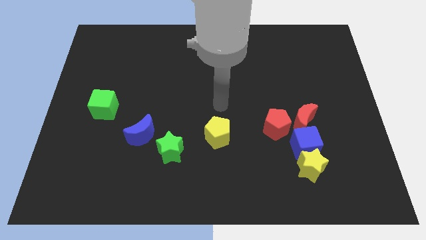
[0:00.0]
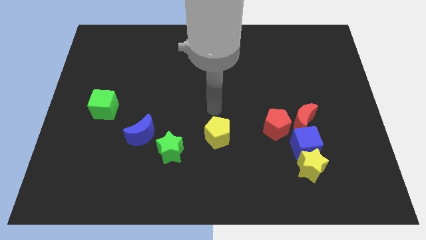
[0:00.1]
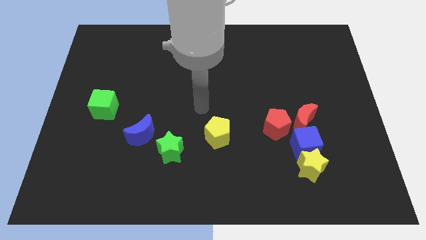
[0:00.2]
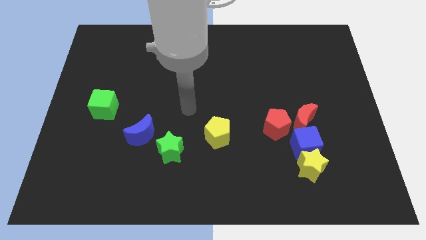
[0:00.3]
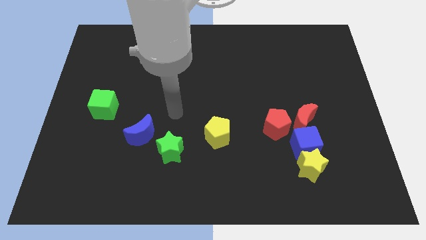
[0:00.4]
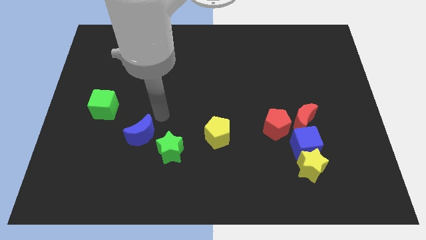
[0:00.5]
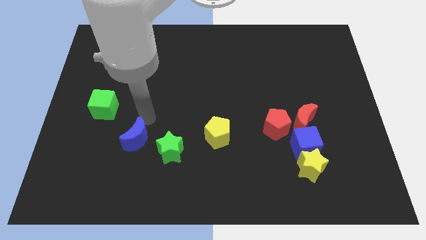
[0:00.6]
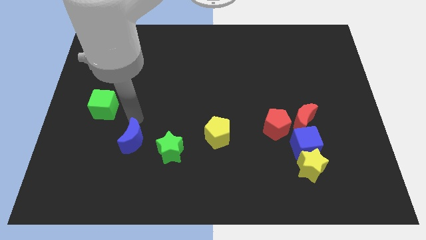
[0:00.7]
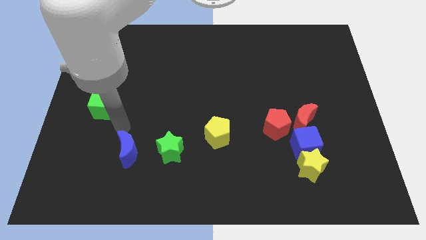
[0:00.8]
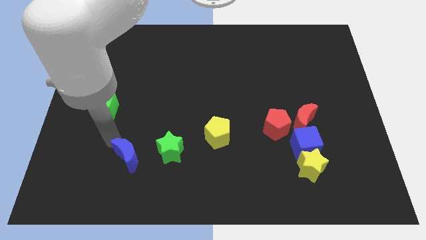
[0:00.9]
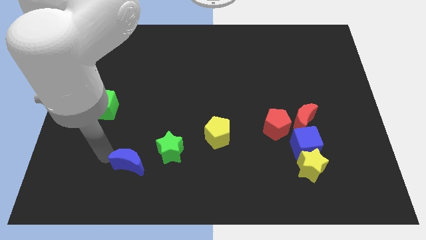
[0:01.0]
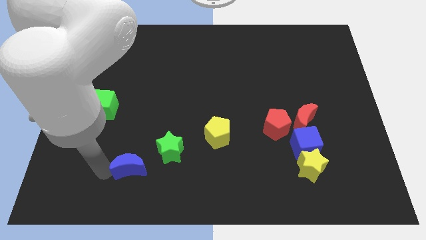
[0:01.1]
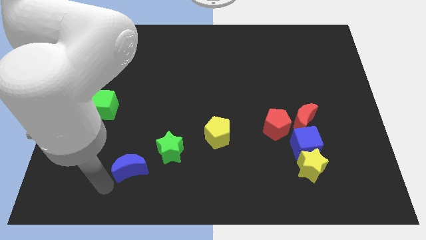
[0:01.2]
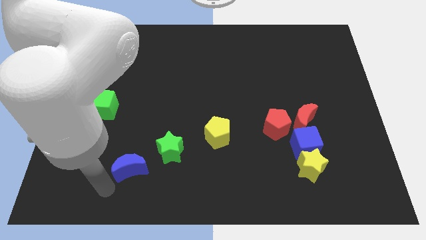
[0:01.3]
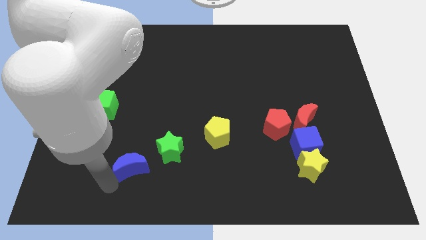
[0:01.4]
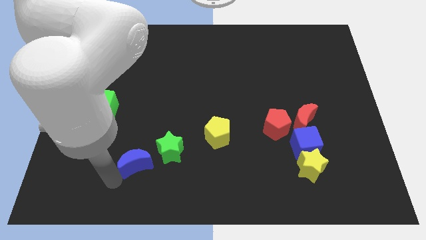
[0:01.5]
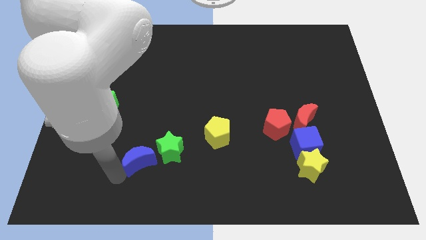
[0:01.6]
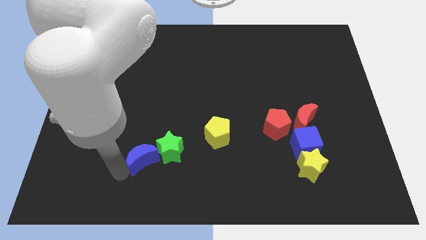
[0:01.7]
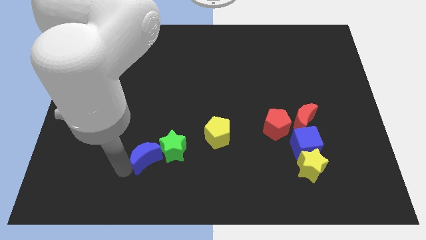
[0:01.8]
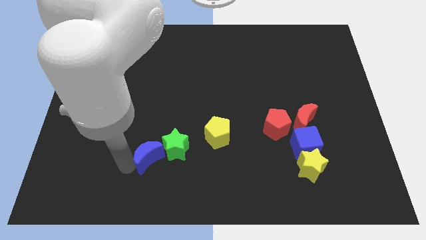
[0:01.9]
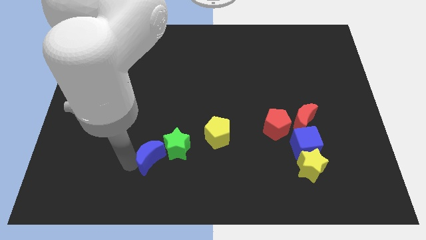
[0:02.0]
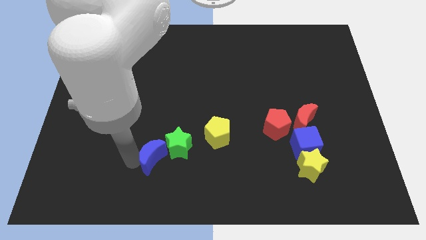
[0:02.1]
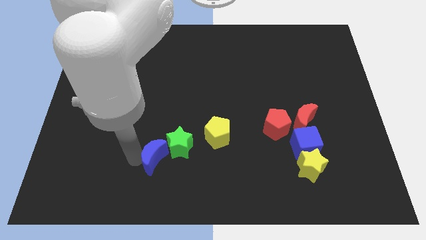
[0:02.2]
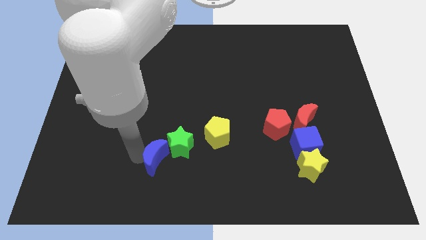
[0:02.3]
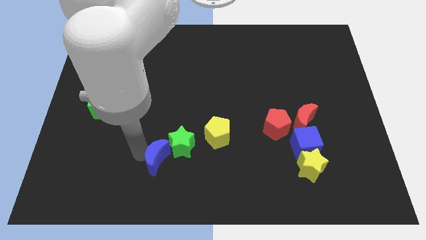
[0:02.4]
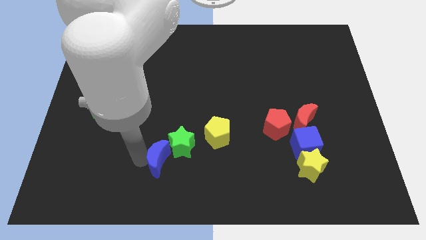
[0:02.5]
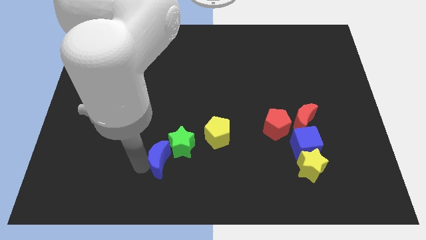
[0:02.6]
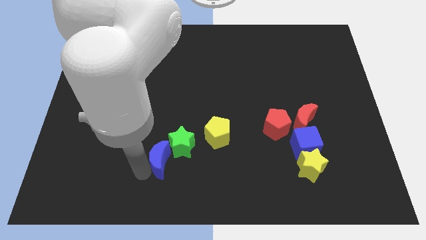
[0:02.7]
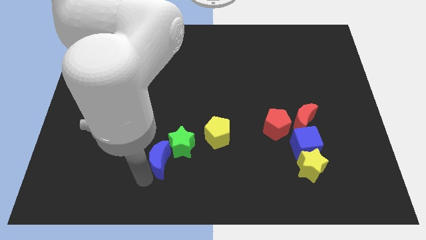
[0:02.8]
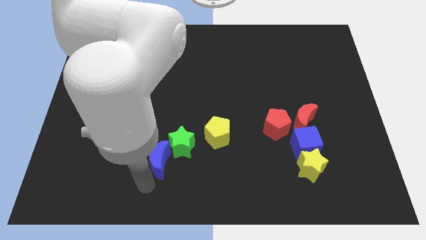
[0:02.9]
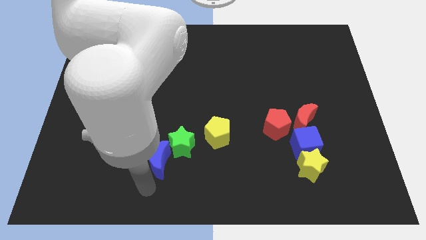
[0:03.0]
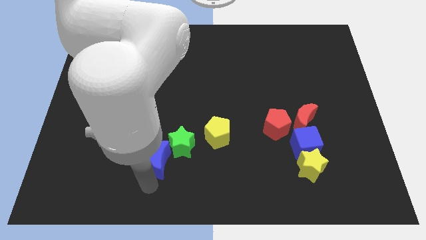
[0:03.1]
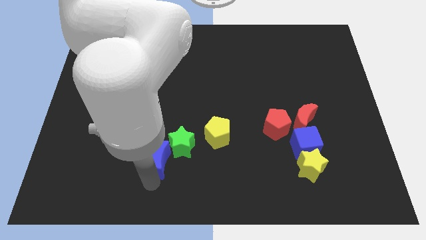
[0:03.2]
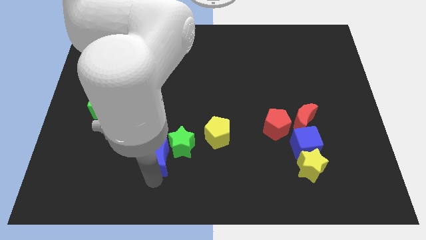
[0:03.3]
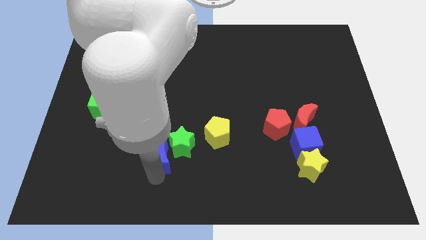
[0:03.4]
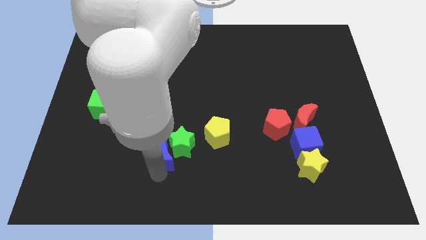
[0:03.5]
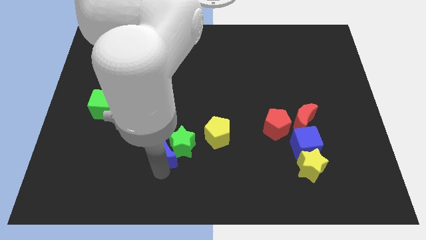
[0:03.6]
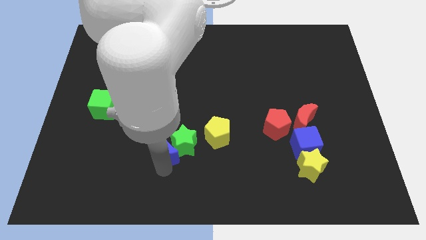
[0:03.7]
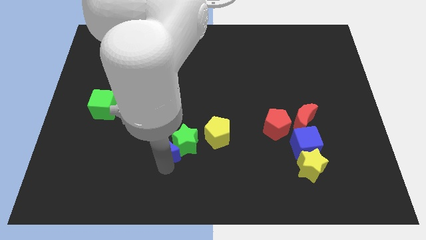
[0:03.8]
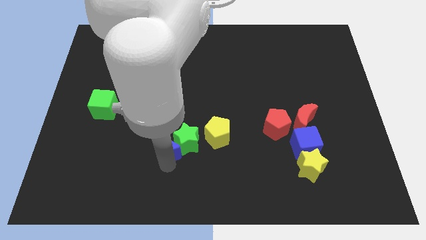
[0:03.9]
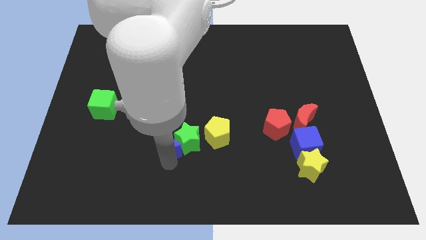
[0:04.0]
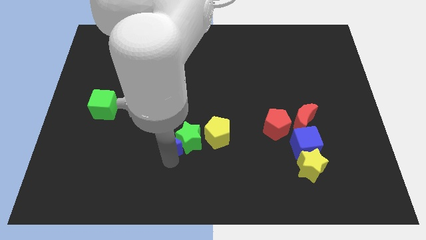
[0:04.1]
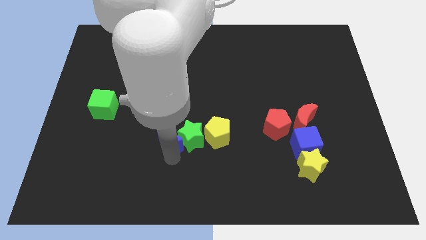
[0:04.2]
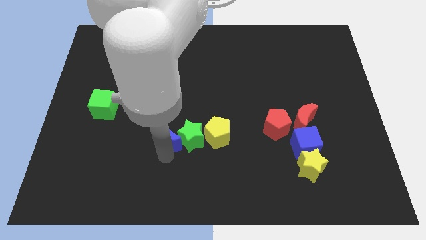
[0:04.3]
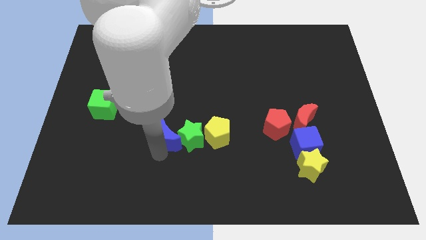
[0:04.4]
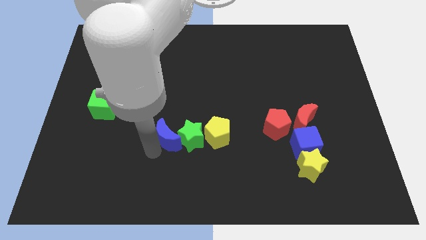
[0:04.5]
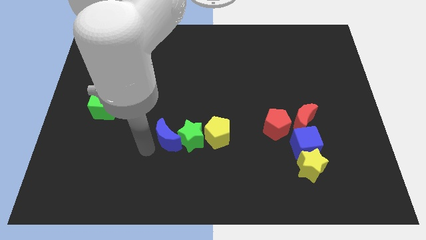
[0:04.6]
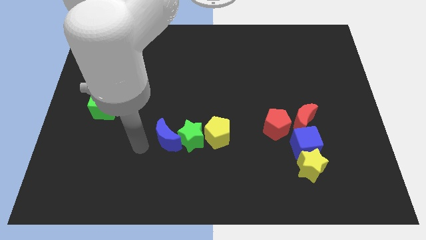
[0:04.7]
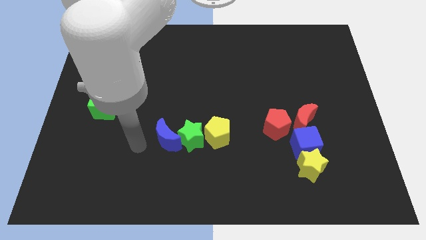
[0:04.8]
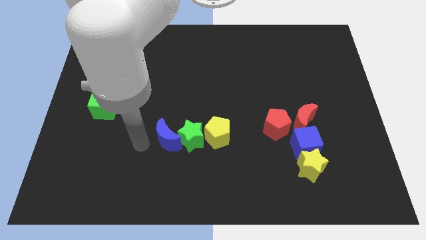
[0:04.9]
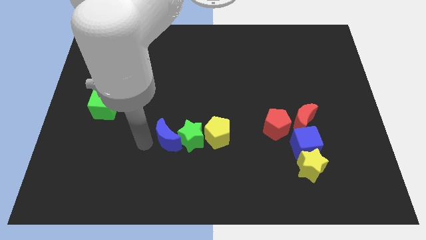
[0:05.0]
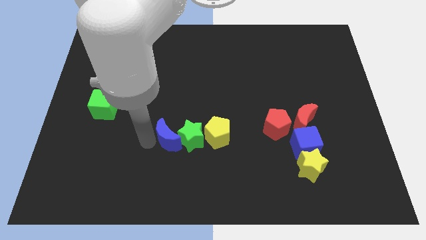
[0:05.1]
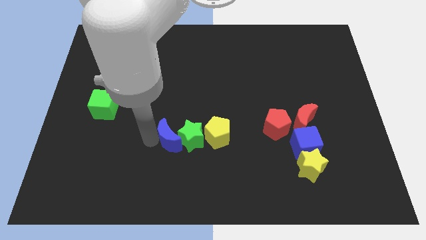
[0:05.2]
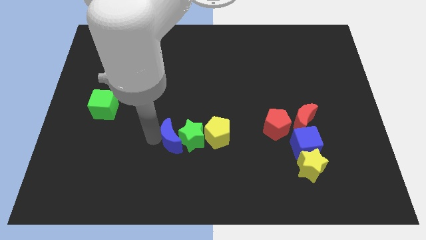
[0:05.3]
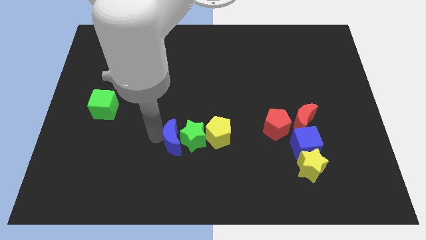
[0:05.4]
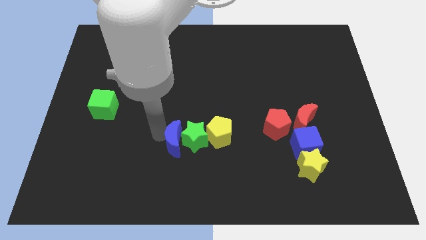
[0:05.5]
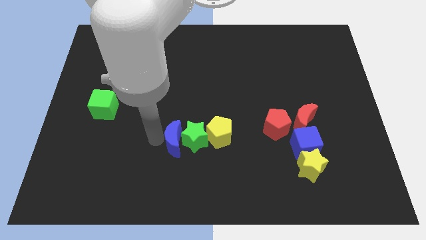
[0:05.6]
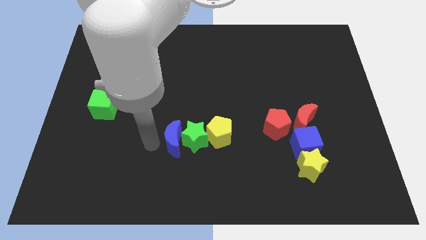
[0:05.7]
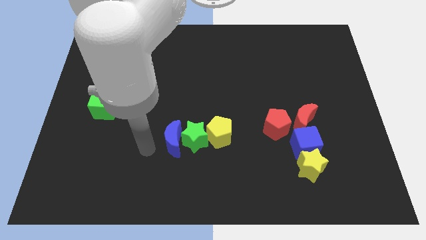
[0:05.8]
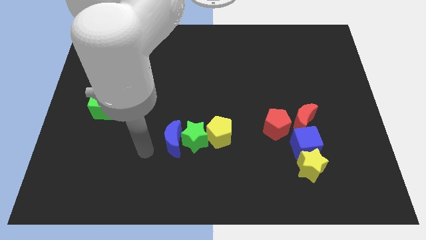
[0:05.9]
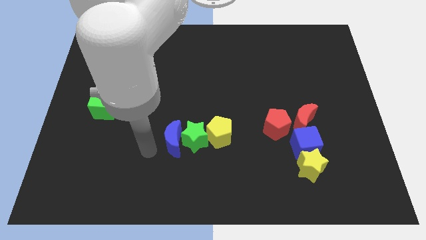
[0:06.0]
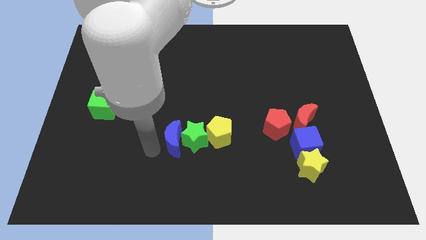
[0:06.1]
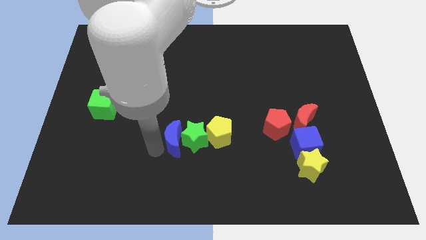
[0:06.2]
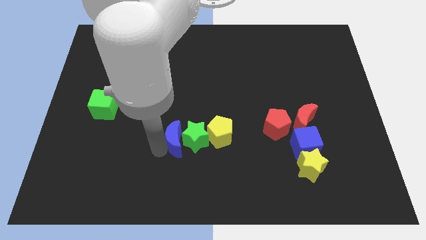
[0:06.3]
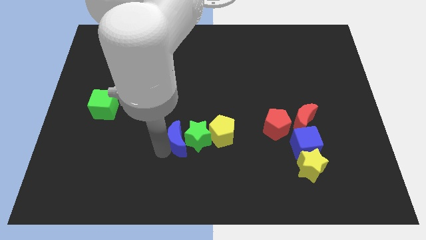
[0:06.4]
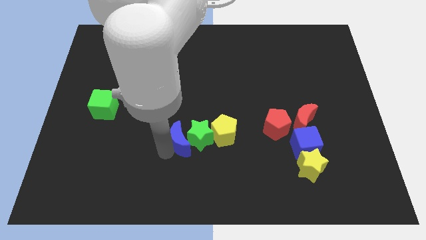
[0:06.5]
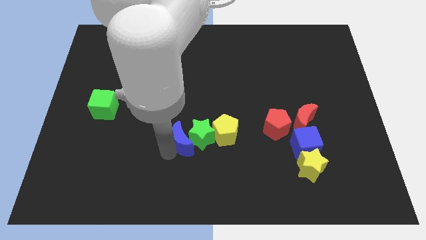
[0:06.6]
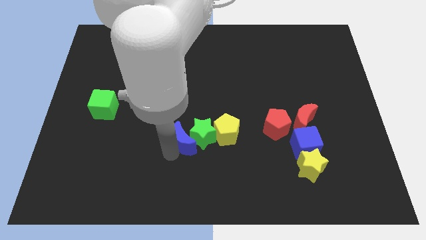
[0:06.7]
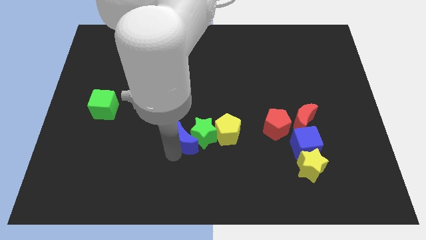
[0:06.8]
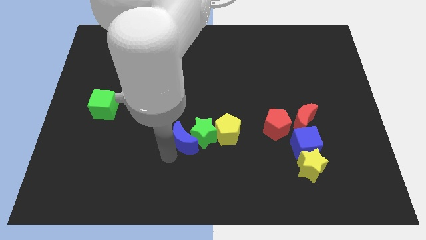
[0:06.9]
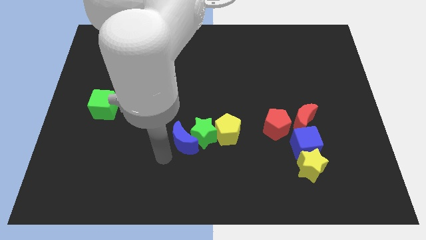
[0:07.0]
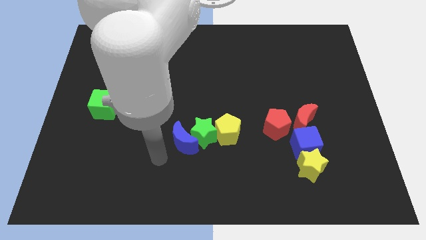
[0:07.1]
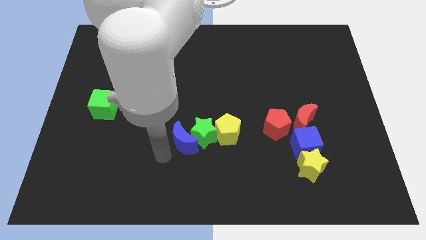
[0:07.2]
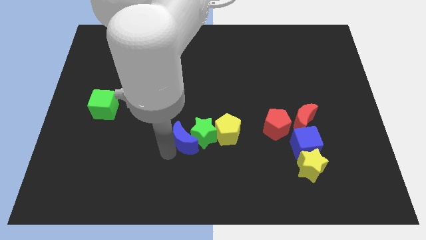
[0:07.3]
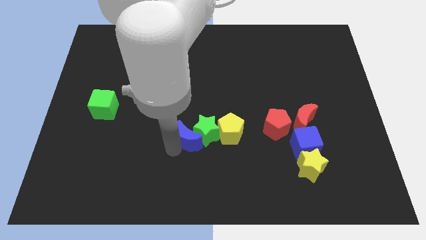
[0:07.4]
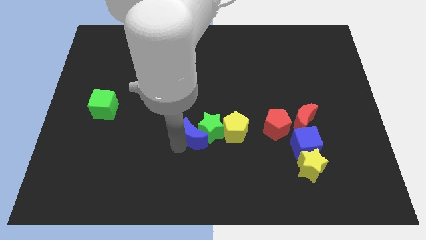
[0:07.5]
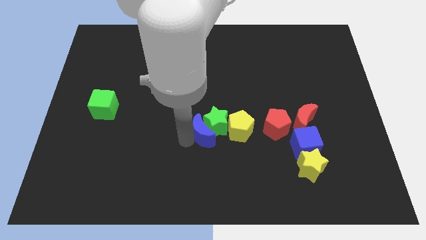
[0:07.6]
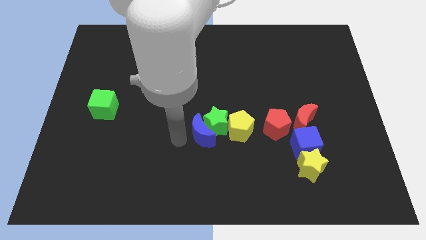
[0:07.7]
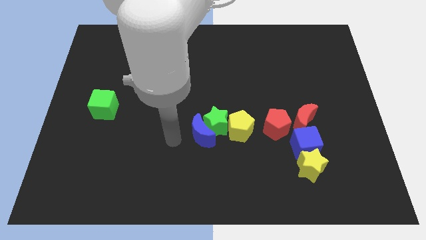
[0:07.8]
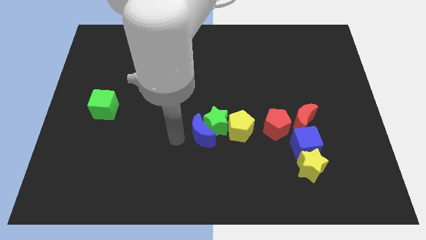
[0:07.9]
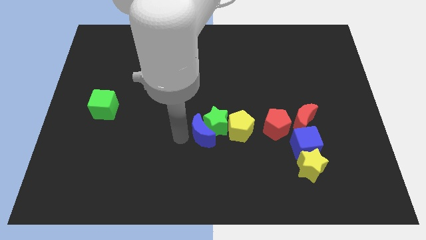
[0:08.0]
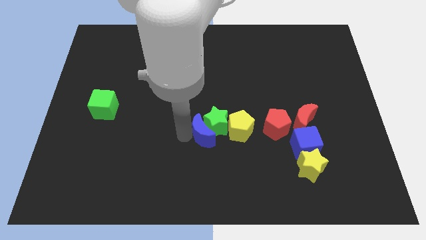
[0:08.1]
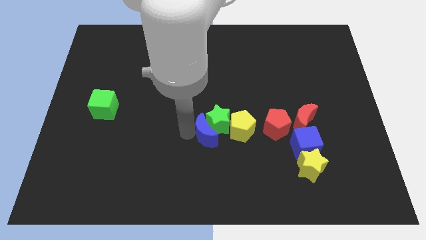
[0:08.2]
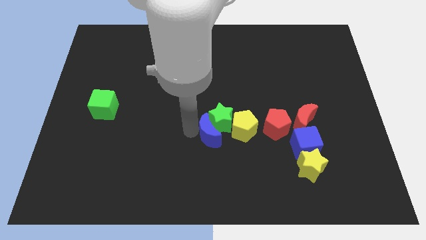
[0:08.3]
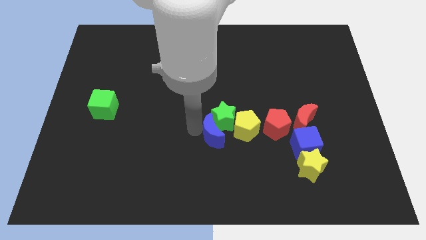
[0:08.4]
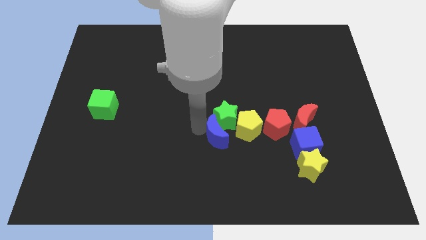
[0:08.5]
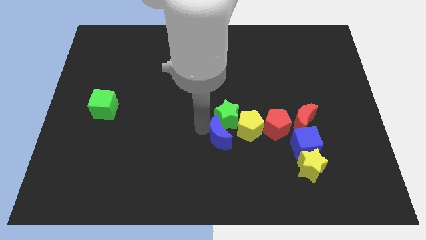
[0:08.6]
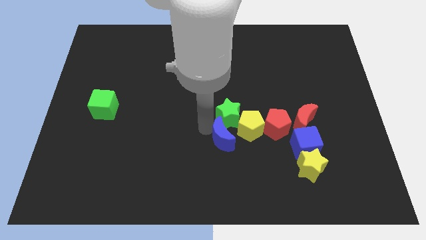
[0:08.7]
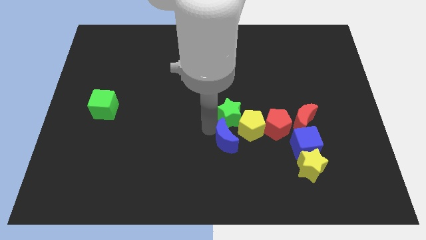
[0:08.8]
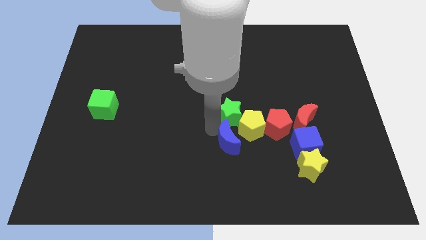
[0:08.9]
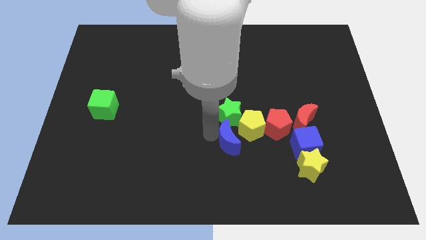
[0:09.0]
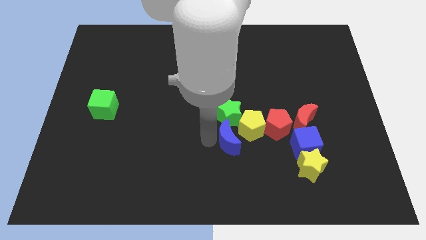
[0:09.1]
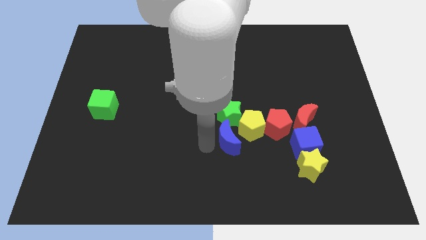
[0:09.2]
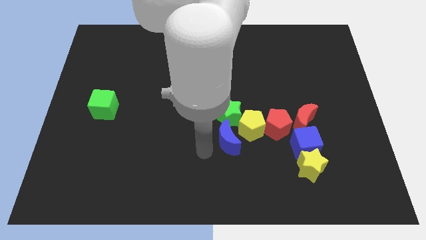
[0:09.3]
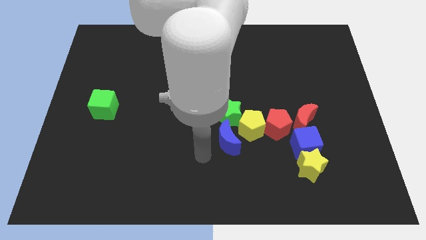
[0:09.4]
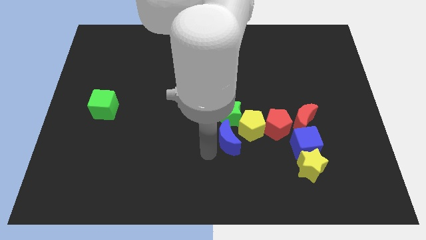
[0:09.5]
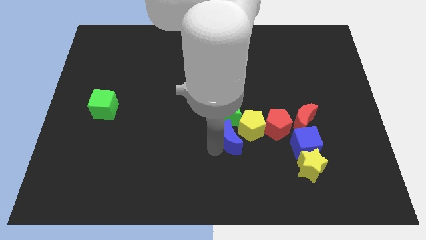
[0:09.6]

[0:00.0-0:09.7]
move the blue moon next to the yellow pentagon
